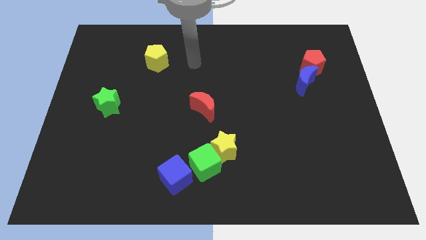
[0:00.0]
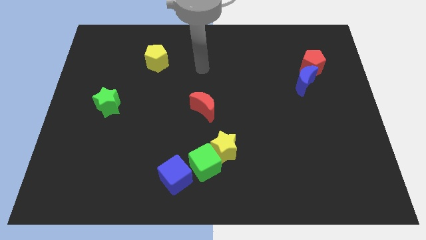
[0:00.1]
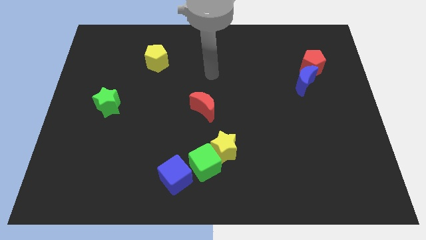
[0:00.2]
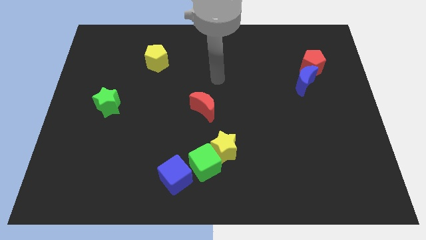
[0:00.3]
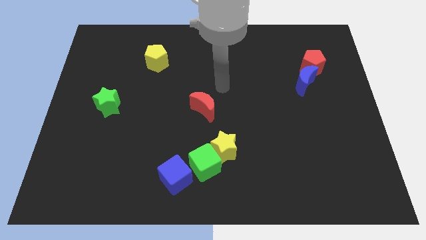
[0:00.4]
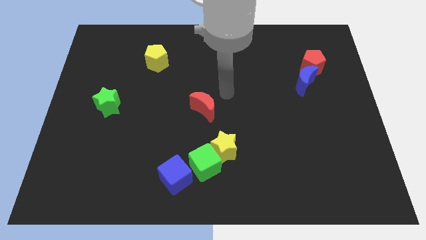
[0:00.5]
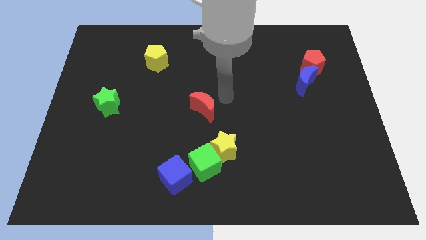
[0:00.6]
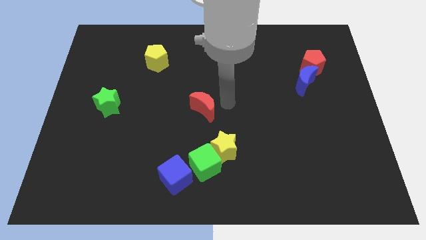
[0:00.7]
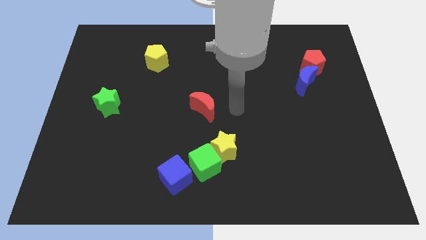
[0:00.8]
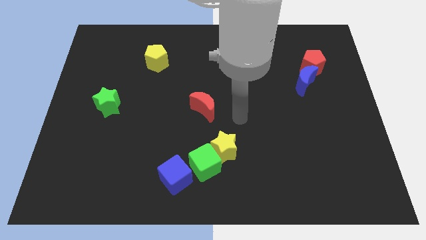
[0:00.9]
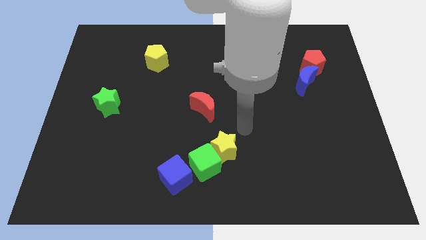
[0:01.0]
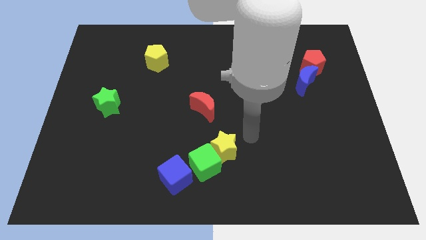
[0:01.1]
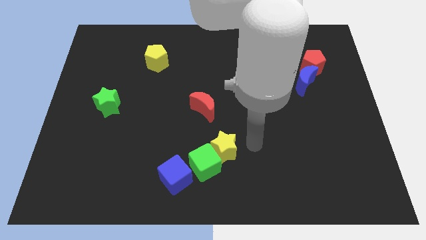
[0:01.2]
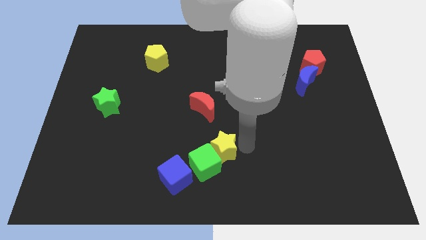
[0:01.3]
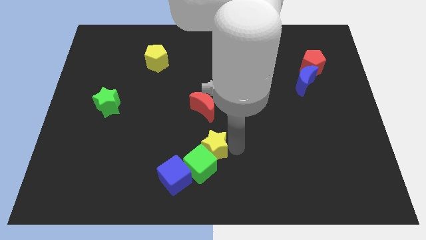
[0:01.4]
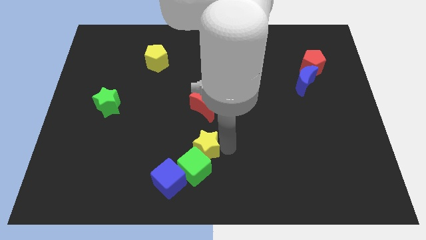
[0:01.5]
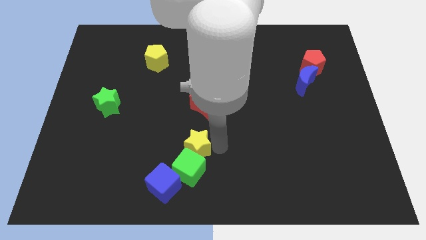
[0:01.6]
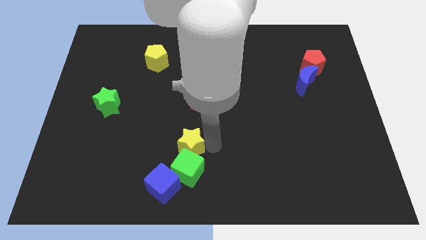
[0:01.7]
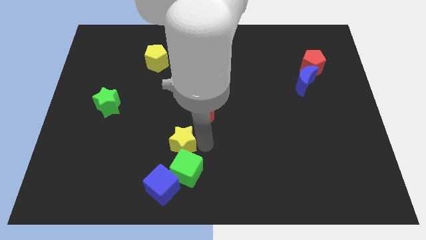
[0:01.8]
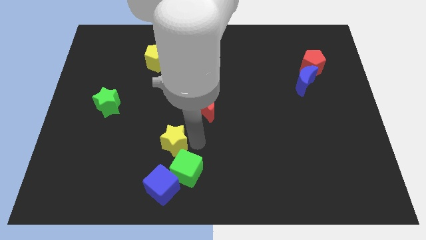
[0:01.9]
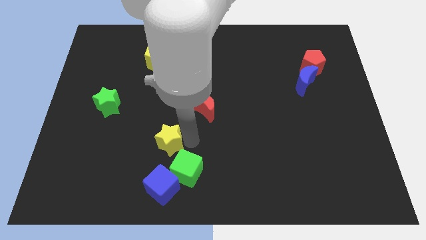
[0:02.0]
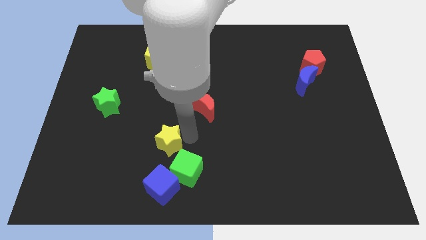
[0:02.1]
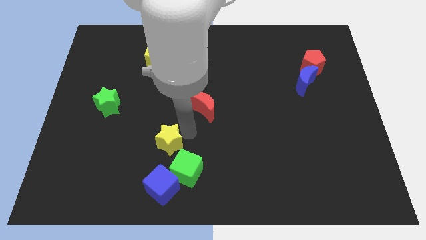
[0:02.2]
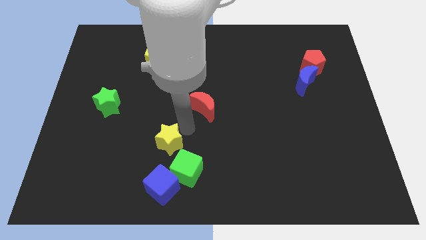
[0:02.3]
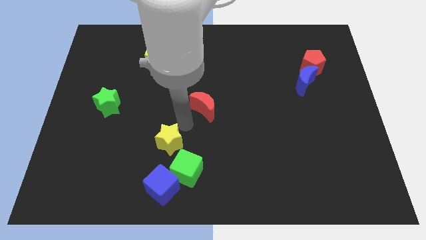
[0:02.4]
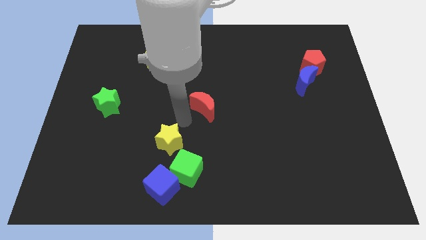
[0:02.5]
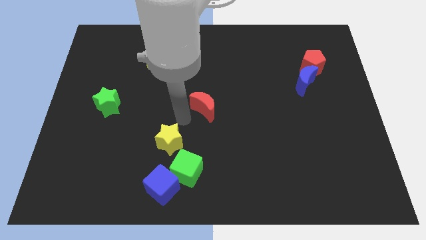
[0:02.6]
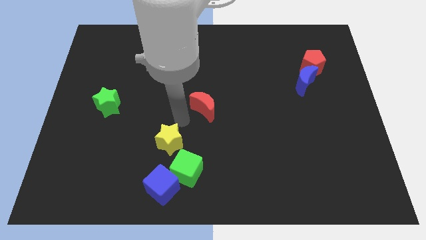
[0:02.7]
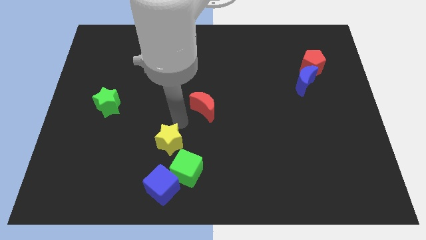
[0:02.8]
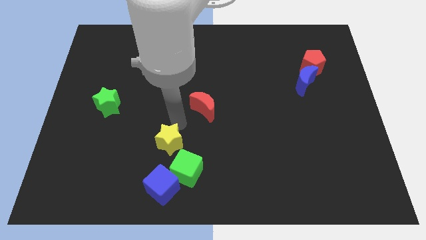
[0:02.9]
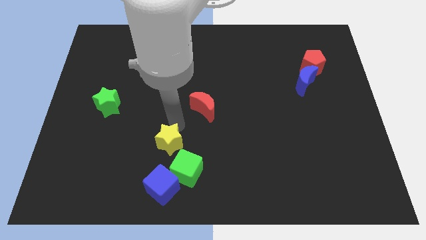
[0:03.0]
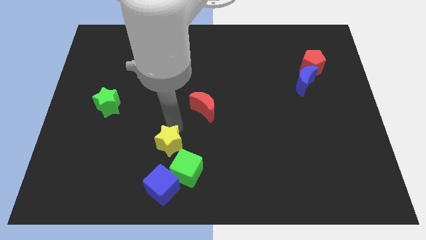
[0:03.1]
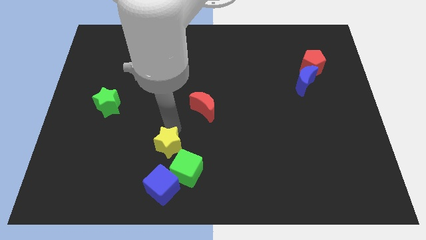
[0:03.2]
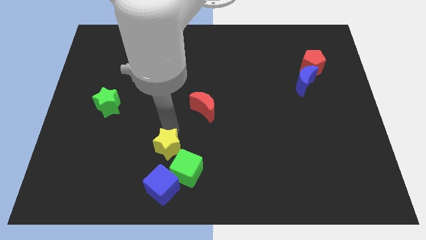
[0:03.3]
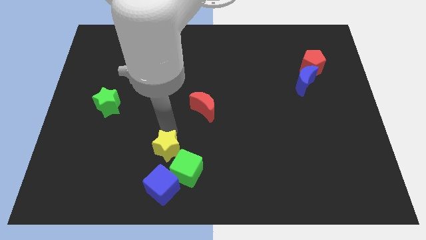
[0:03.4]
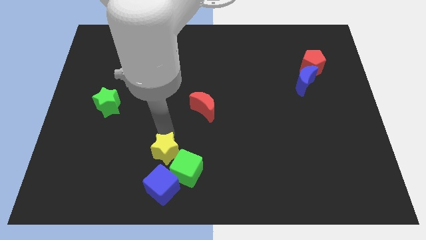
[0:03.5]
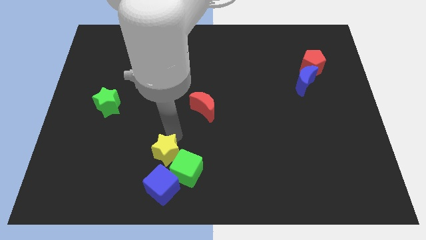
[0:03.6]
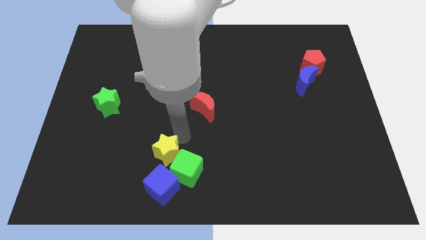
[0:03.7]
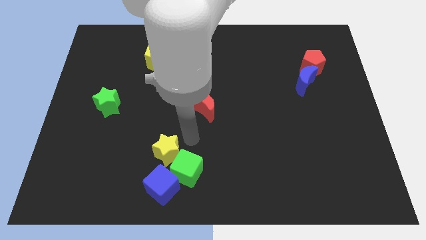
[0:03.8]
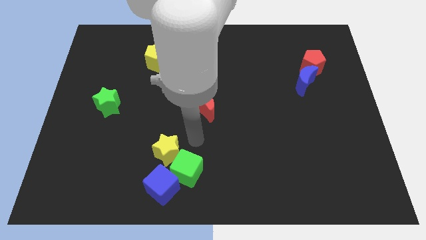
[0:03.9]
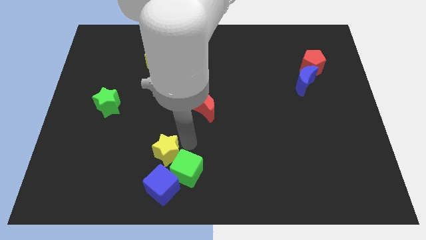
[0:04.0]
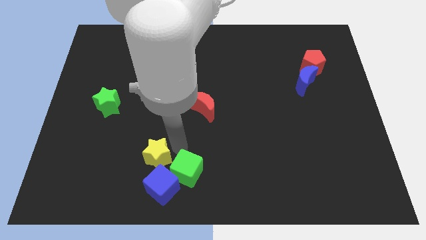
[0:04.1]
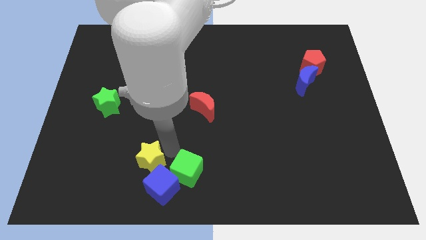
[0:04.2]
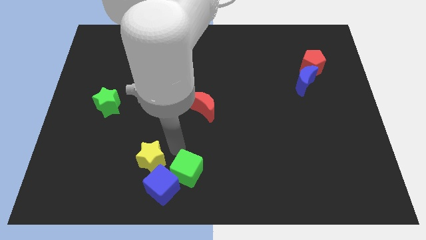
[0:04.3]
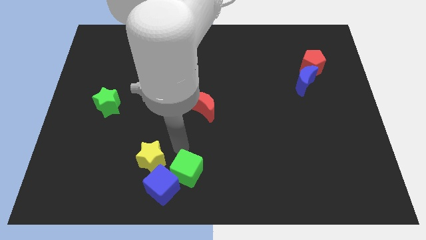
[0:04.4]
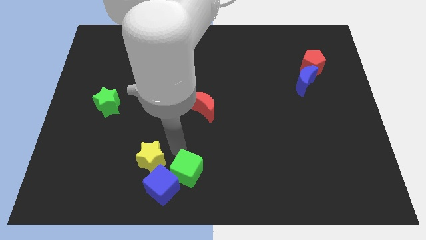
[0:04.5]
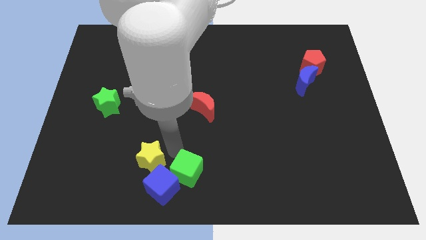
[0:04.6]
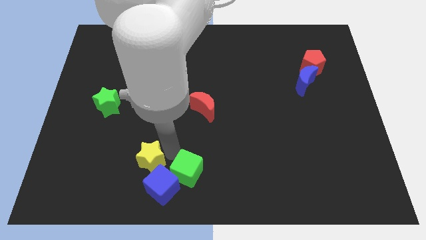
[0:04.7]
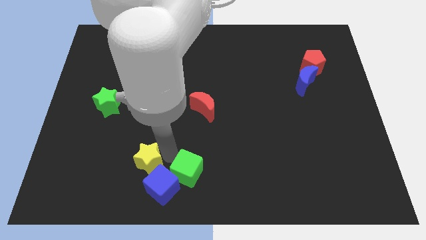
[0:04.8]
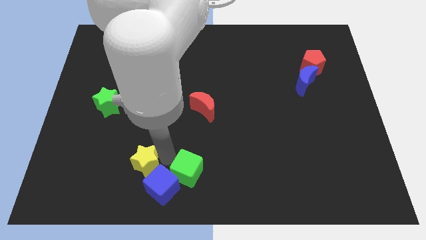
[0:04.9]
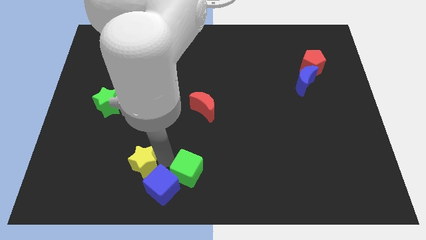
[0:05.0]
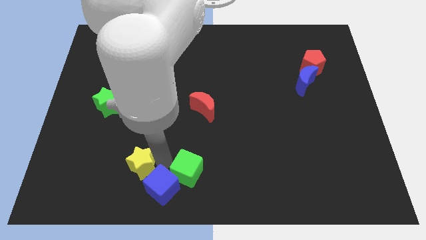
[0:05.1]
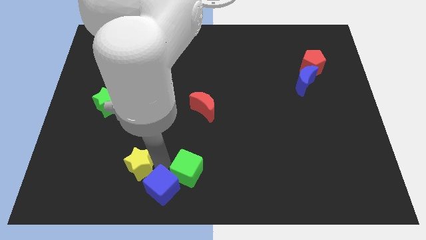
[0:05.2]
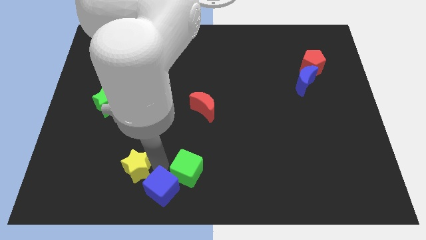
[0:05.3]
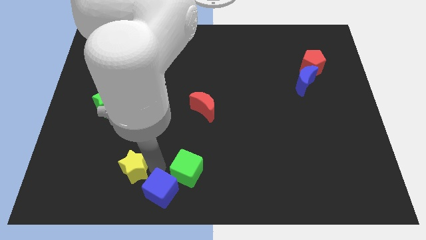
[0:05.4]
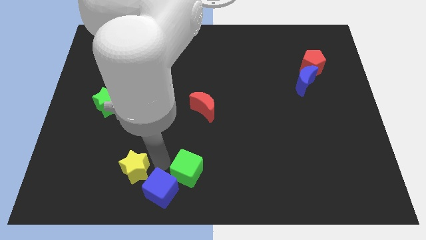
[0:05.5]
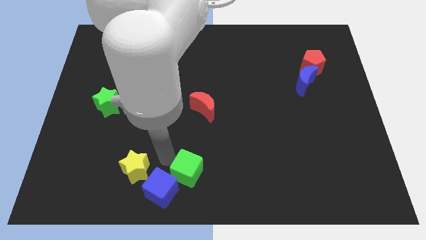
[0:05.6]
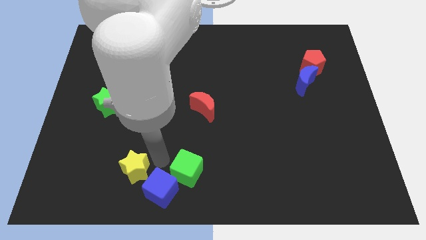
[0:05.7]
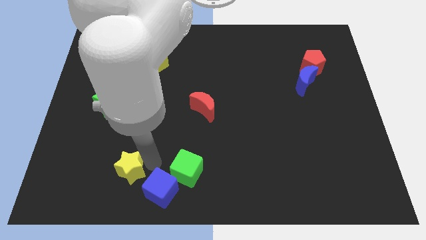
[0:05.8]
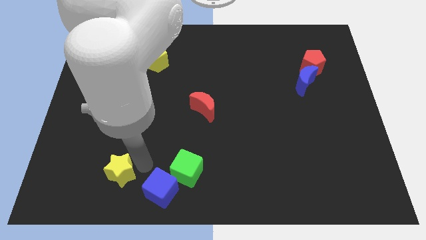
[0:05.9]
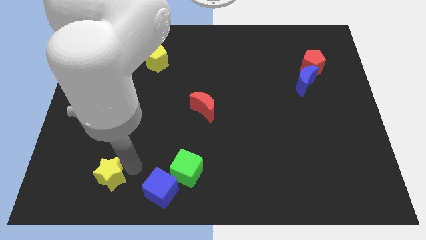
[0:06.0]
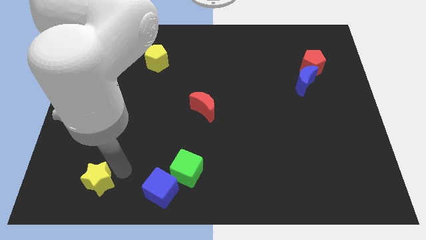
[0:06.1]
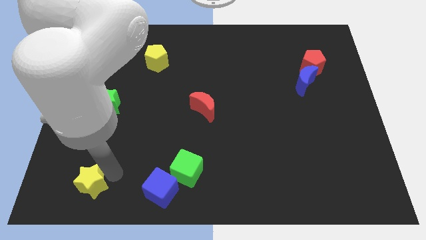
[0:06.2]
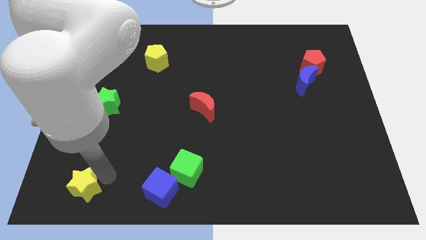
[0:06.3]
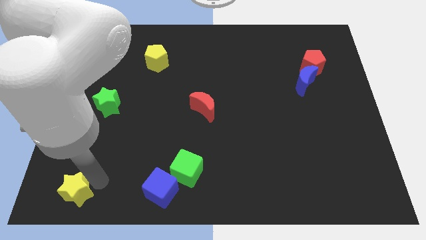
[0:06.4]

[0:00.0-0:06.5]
push the yellow star to the bottom left of the board

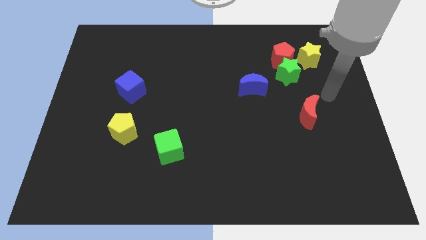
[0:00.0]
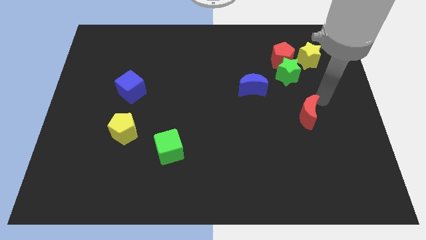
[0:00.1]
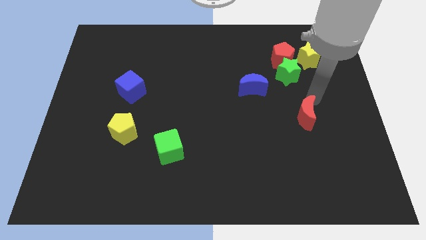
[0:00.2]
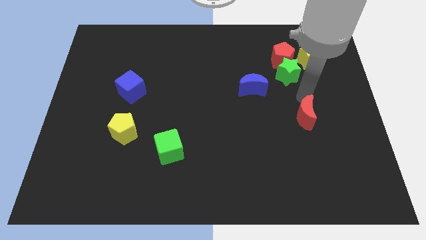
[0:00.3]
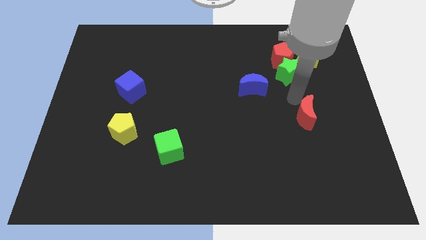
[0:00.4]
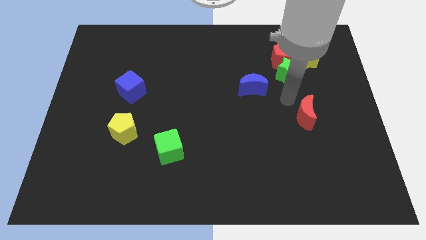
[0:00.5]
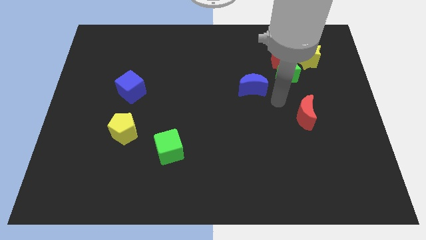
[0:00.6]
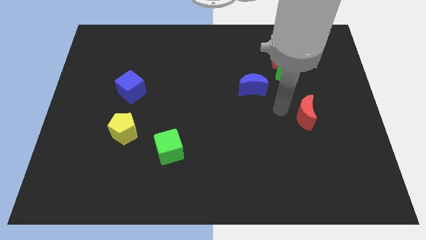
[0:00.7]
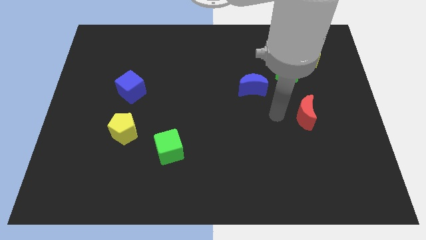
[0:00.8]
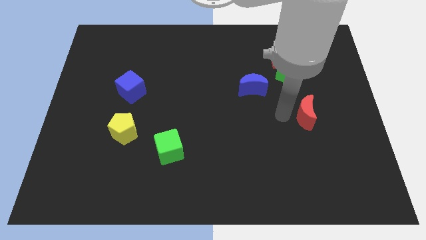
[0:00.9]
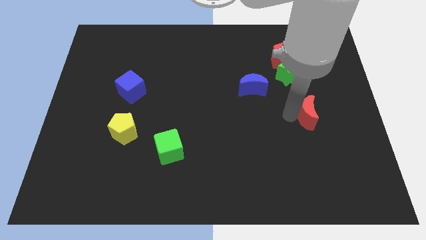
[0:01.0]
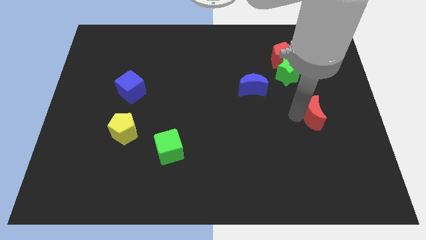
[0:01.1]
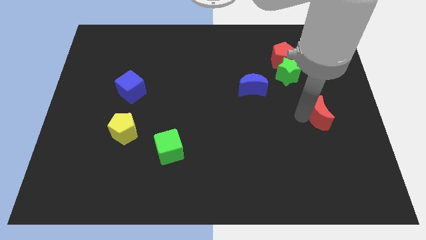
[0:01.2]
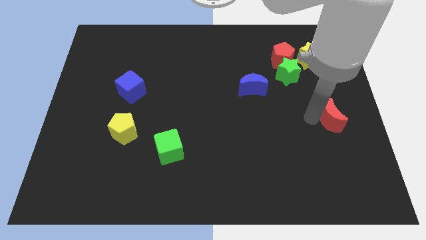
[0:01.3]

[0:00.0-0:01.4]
slide the red moon to the right side of the board
